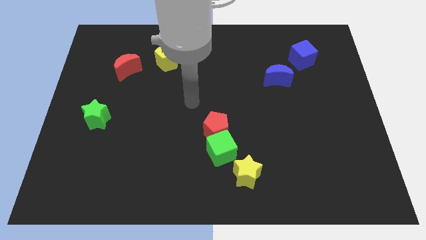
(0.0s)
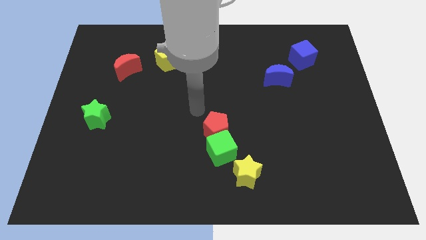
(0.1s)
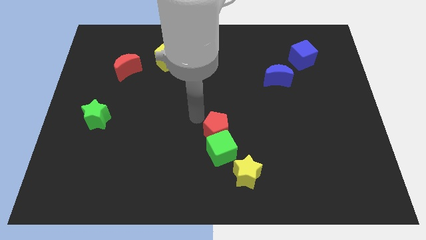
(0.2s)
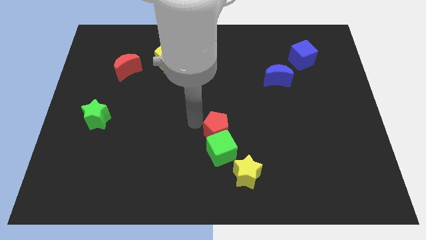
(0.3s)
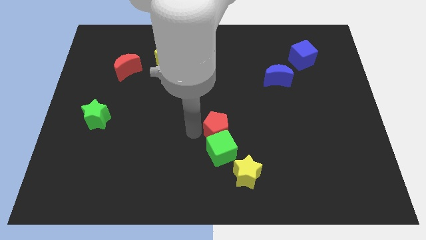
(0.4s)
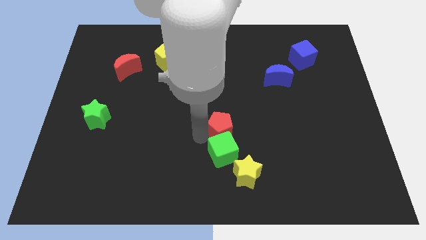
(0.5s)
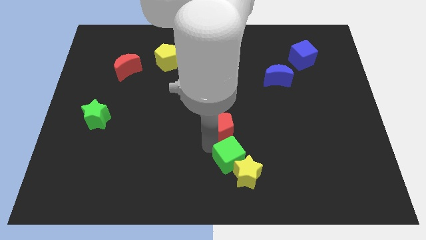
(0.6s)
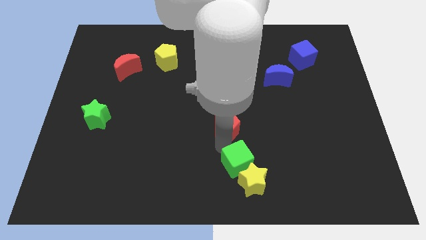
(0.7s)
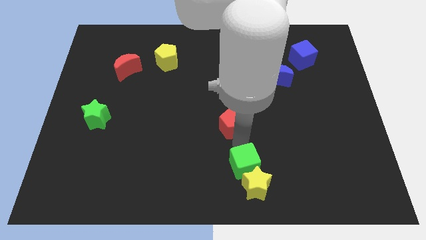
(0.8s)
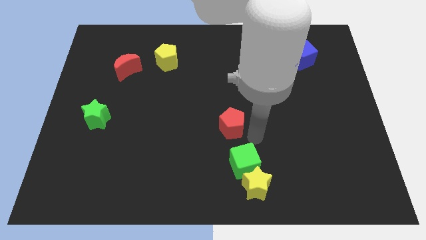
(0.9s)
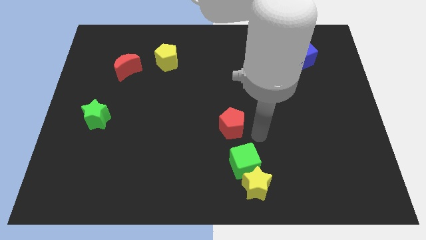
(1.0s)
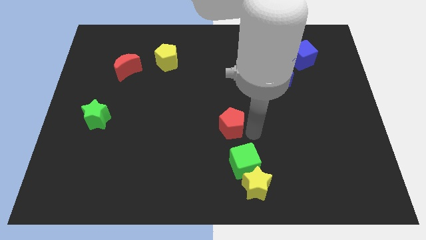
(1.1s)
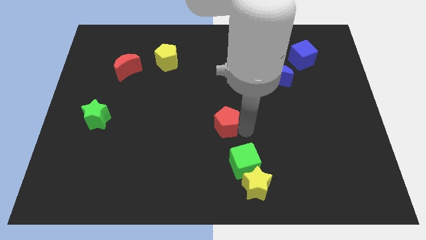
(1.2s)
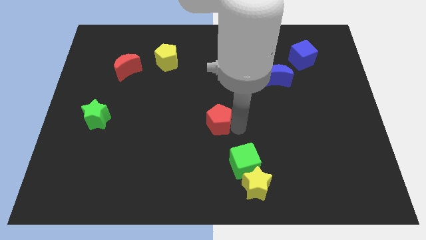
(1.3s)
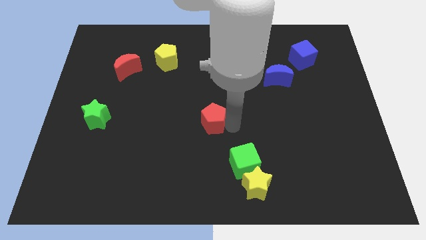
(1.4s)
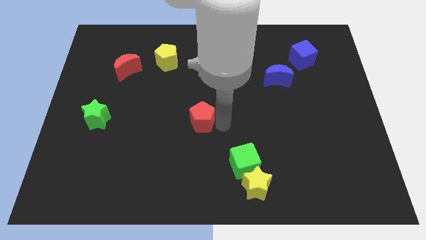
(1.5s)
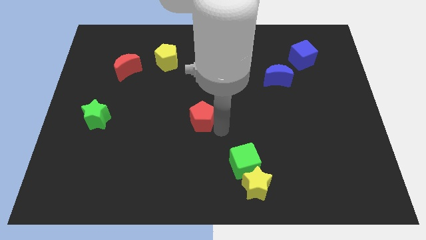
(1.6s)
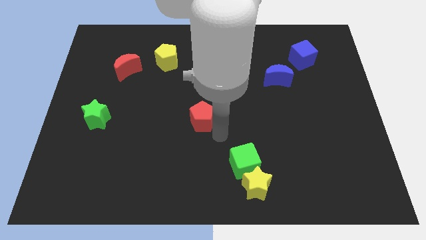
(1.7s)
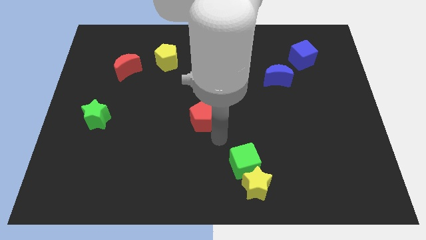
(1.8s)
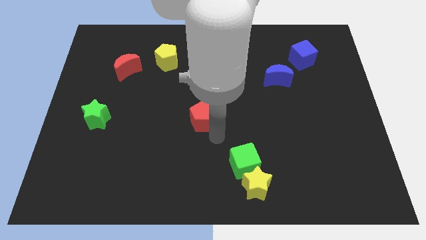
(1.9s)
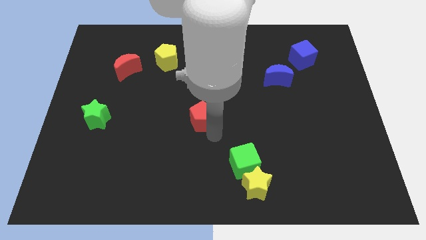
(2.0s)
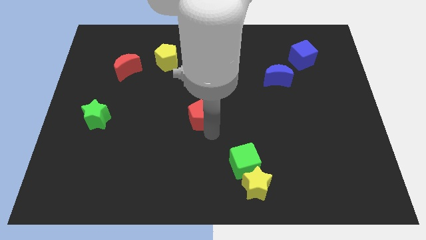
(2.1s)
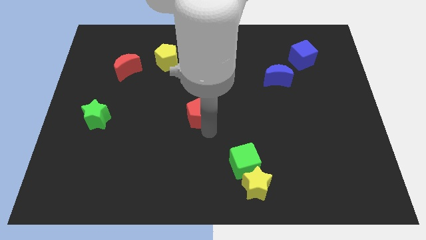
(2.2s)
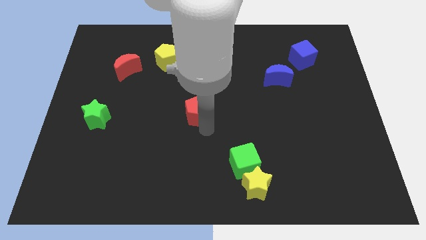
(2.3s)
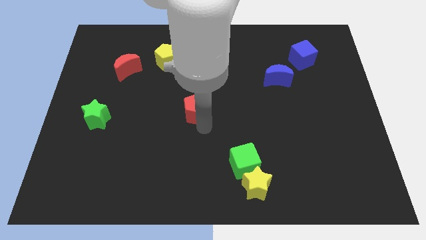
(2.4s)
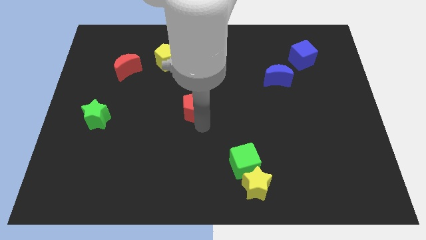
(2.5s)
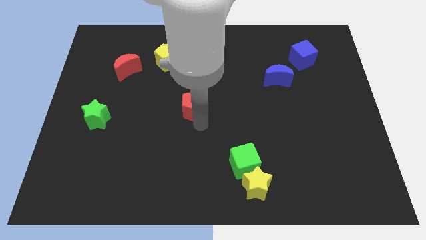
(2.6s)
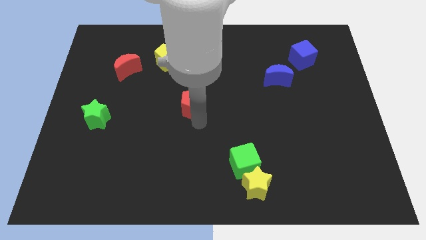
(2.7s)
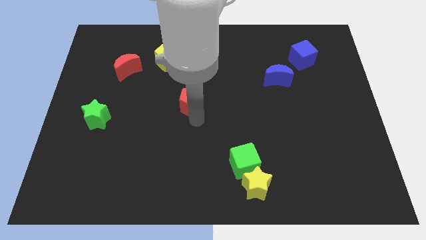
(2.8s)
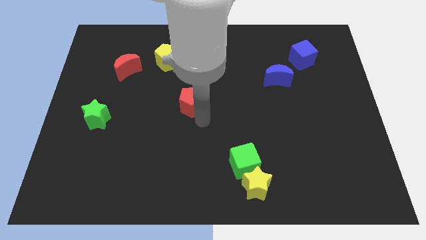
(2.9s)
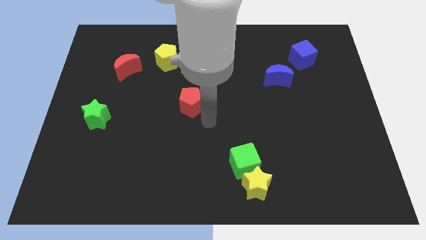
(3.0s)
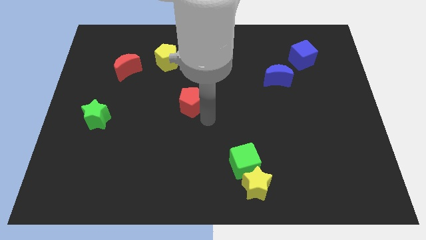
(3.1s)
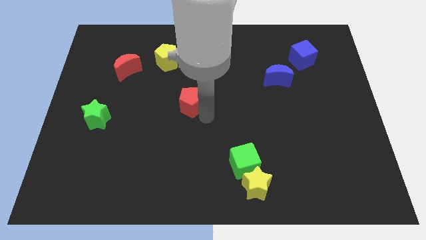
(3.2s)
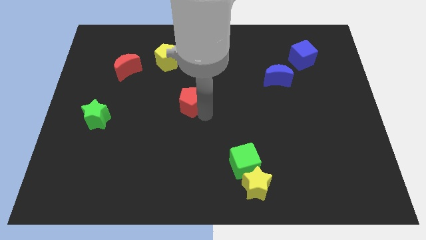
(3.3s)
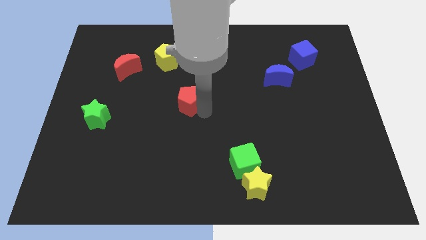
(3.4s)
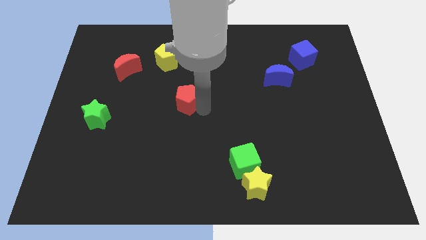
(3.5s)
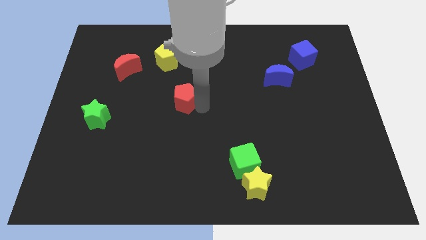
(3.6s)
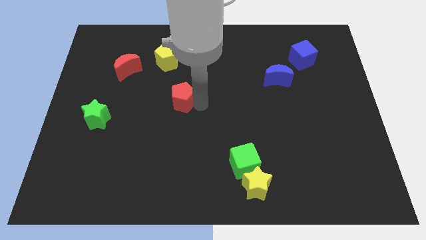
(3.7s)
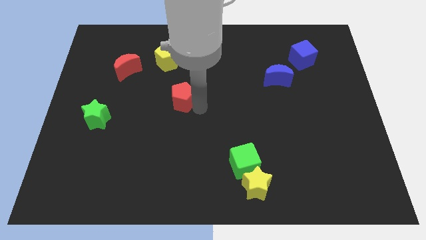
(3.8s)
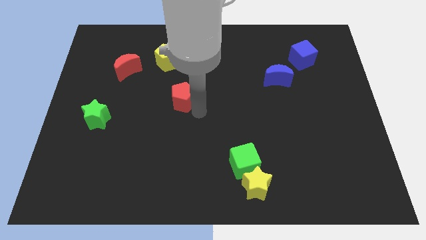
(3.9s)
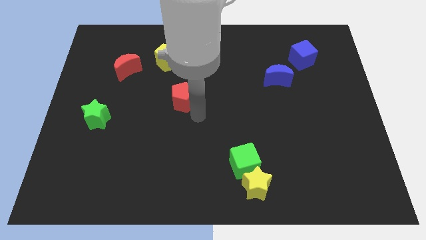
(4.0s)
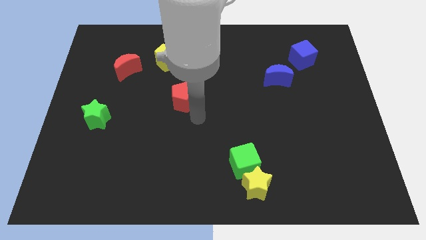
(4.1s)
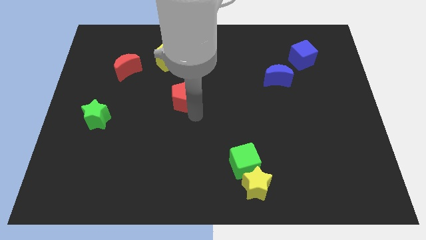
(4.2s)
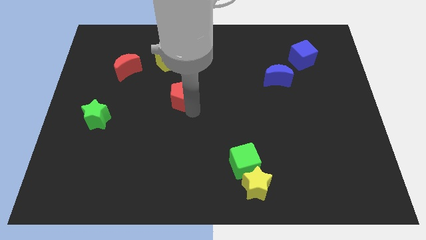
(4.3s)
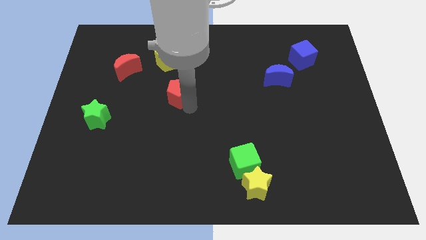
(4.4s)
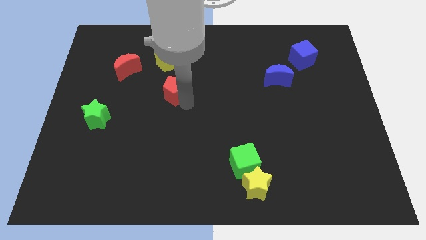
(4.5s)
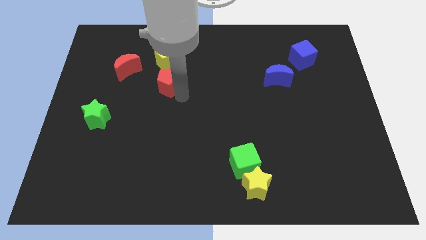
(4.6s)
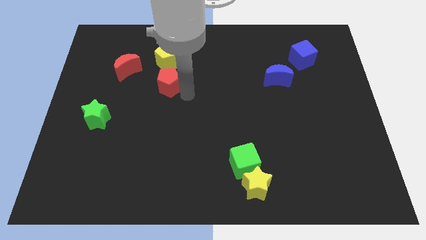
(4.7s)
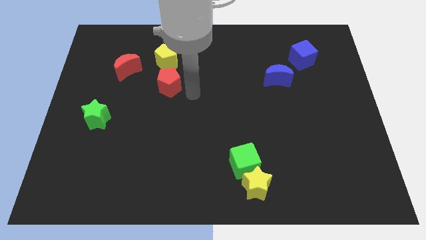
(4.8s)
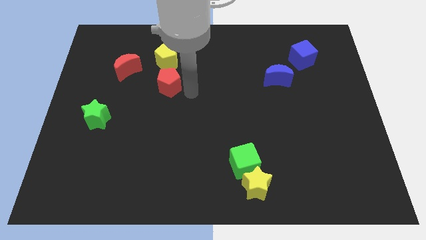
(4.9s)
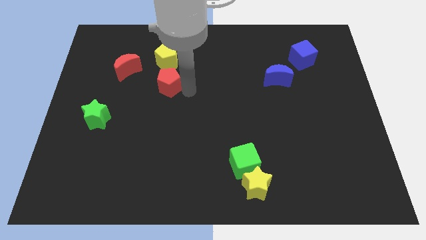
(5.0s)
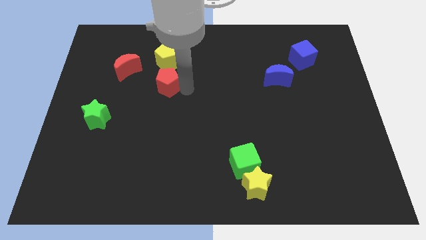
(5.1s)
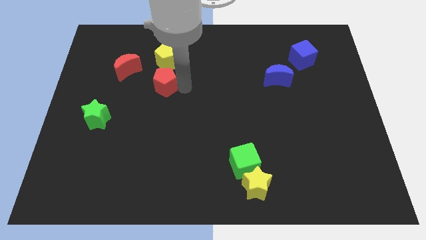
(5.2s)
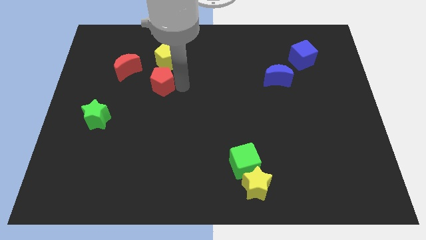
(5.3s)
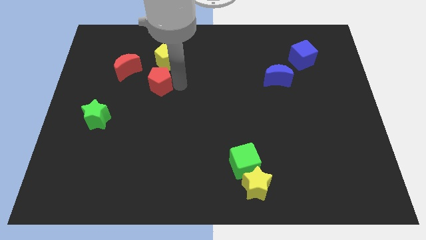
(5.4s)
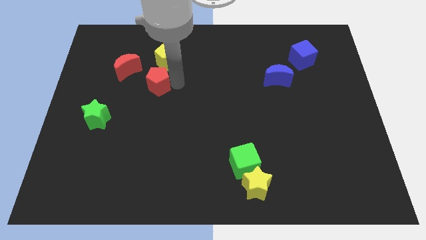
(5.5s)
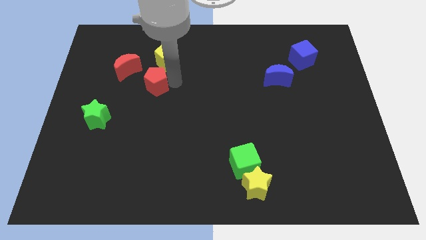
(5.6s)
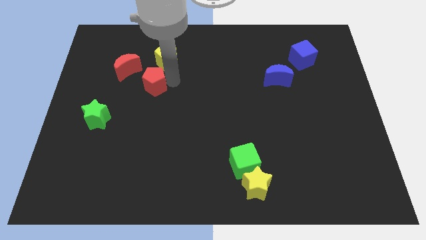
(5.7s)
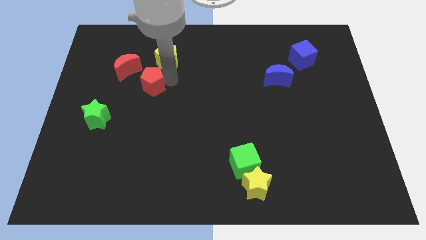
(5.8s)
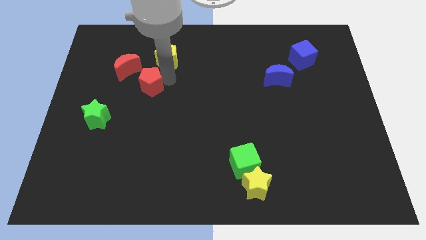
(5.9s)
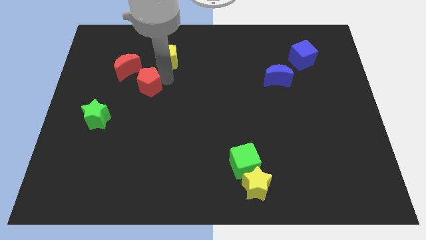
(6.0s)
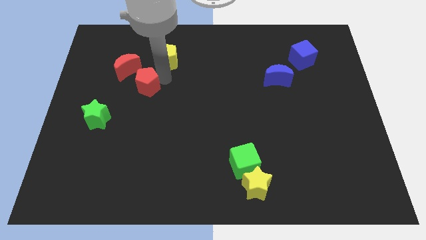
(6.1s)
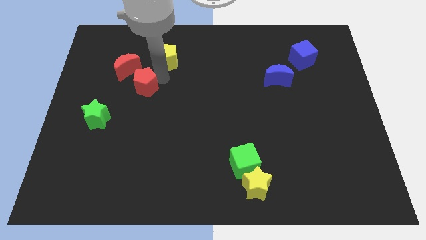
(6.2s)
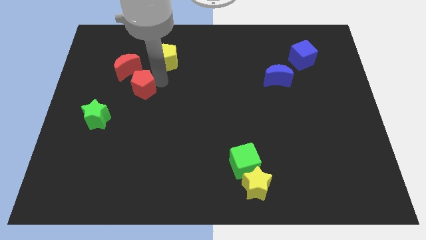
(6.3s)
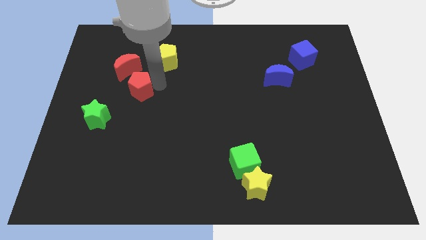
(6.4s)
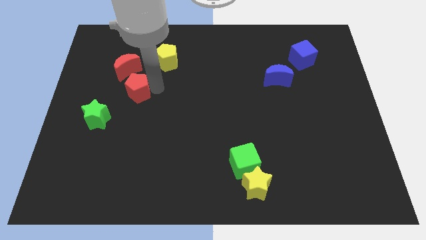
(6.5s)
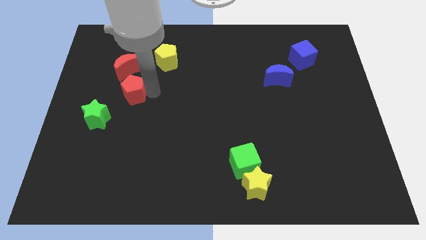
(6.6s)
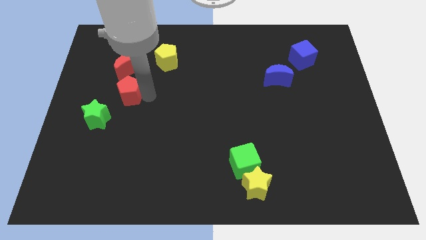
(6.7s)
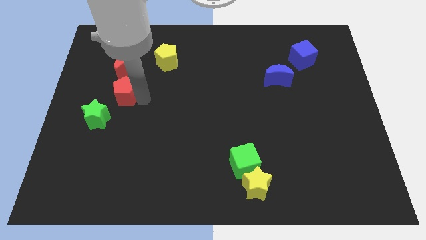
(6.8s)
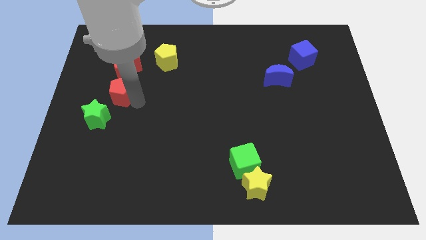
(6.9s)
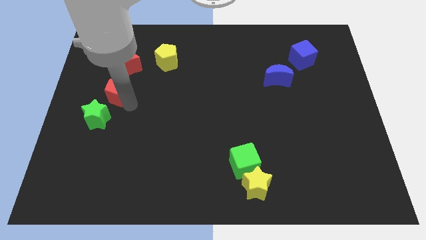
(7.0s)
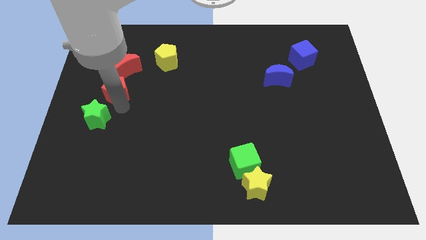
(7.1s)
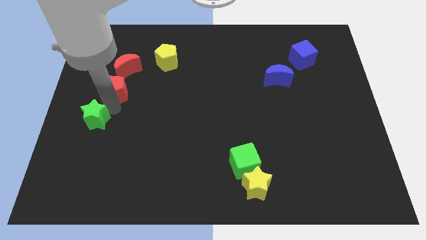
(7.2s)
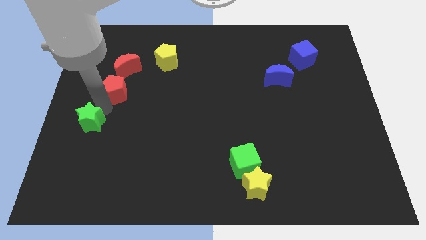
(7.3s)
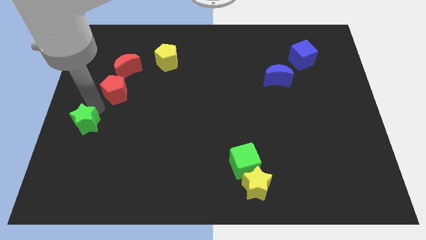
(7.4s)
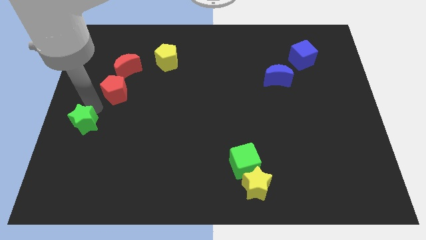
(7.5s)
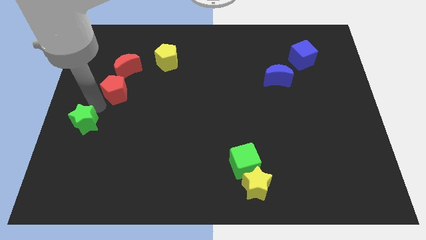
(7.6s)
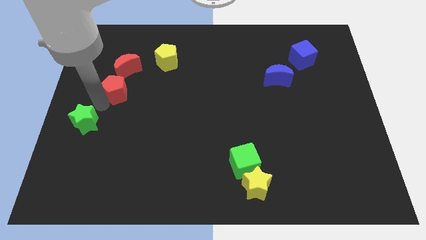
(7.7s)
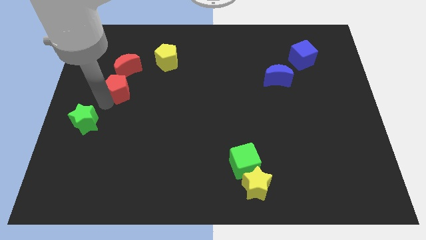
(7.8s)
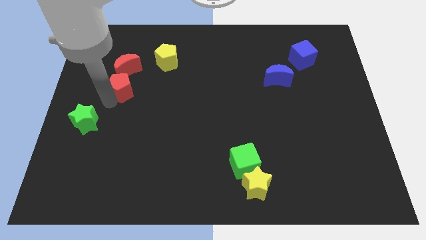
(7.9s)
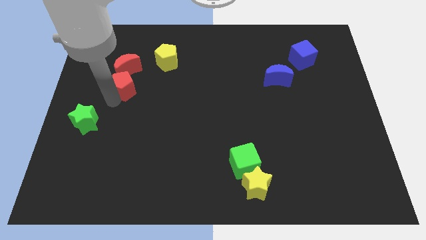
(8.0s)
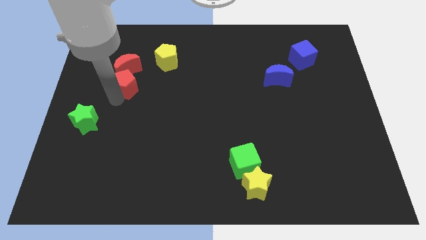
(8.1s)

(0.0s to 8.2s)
push the red pentagon towards the red moon
